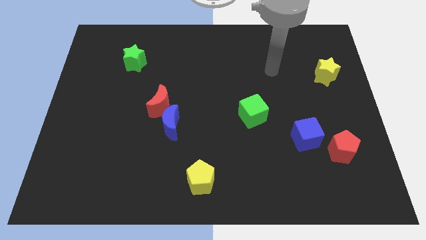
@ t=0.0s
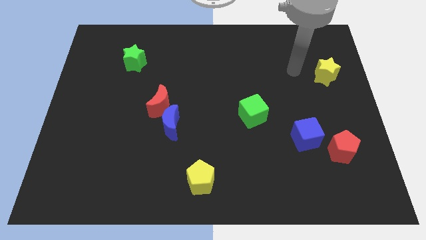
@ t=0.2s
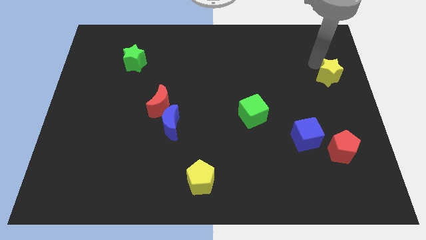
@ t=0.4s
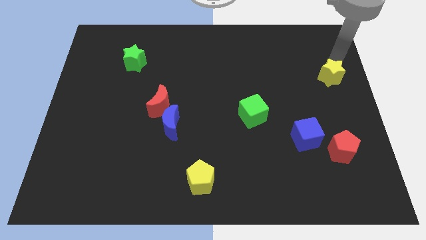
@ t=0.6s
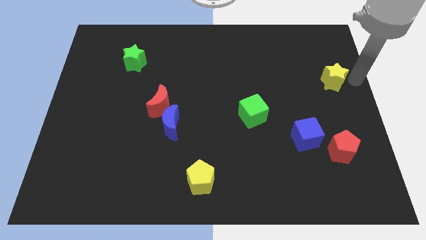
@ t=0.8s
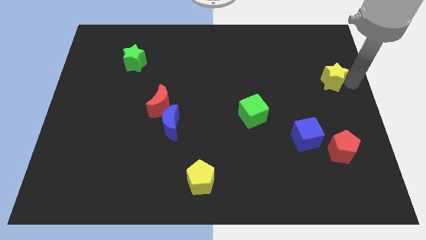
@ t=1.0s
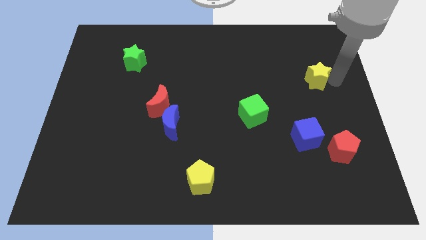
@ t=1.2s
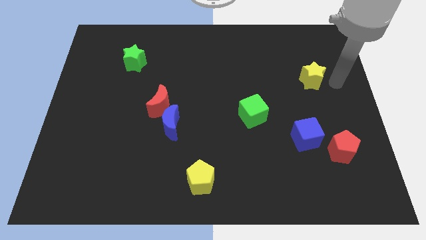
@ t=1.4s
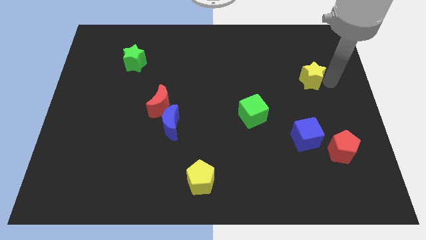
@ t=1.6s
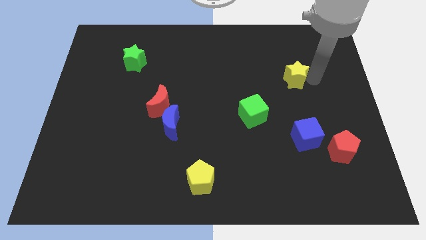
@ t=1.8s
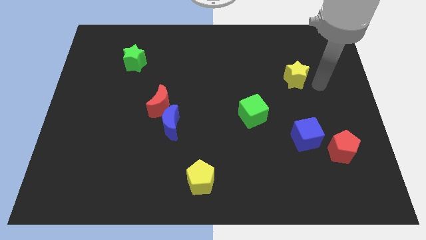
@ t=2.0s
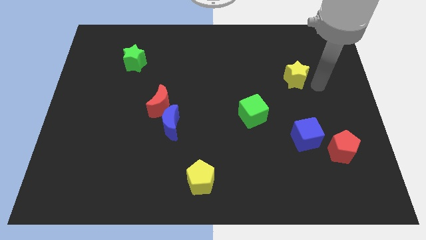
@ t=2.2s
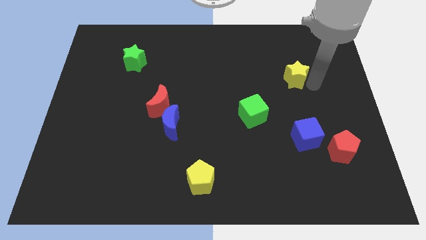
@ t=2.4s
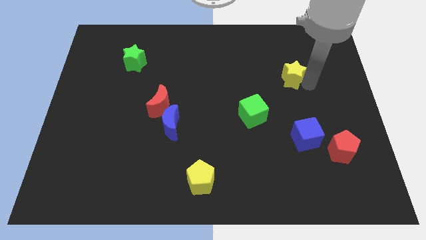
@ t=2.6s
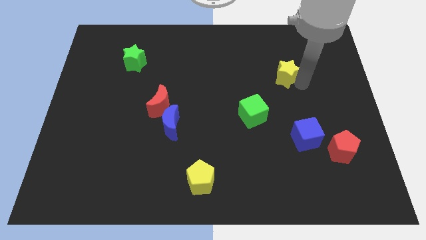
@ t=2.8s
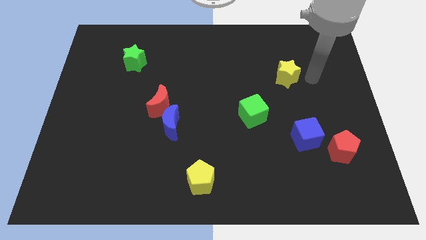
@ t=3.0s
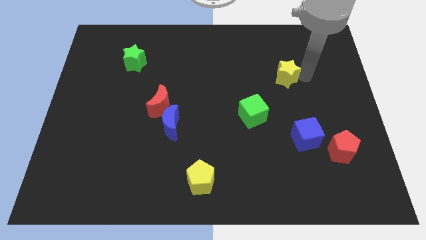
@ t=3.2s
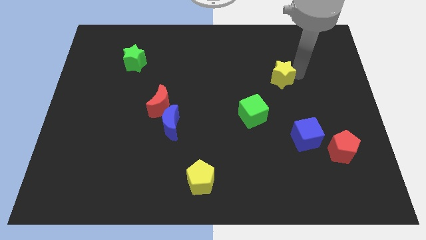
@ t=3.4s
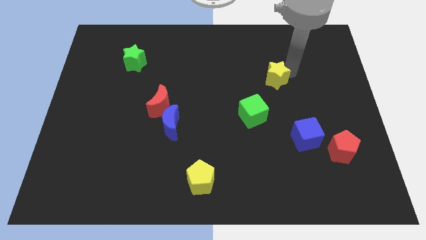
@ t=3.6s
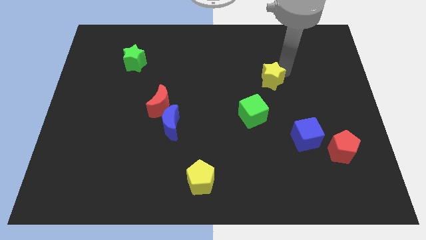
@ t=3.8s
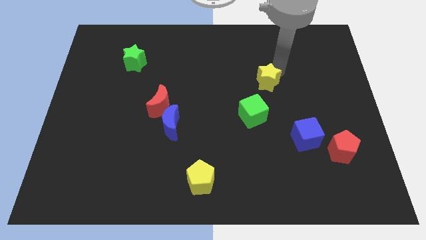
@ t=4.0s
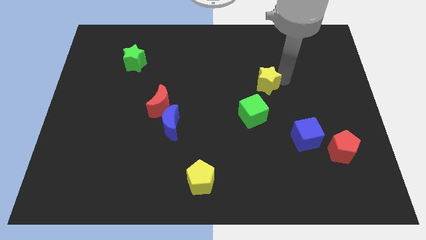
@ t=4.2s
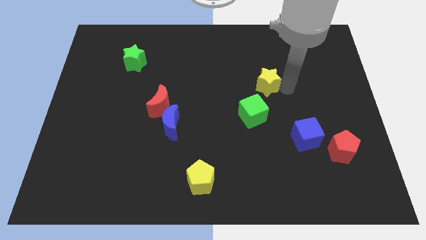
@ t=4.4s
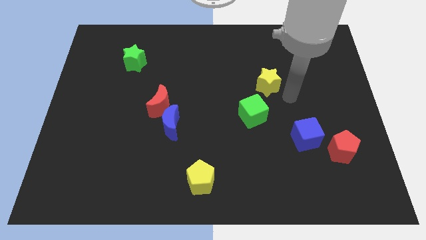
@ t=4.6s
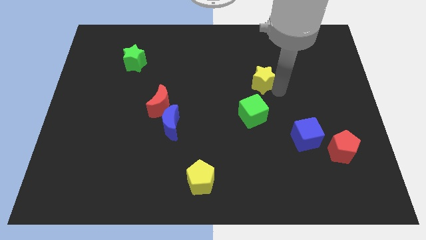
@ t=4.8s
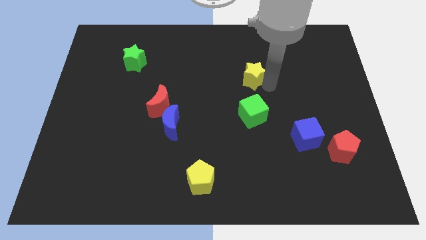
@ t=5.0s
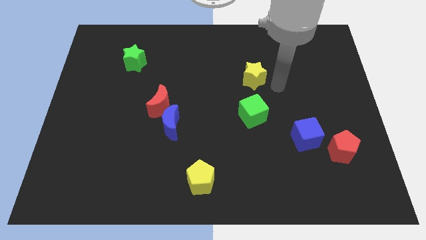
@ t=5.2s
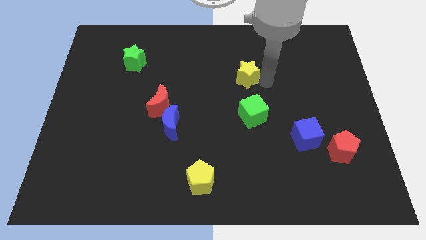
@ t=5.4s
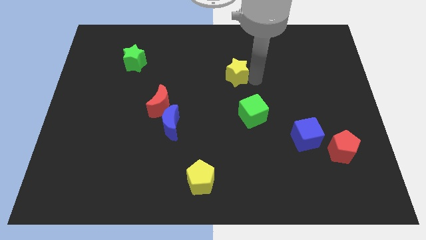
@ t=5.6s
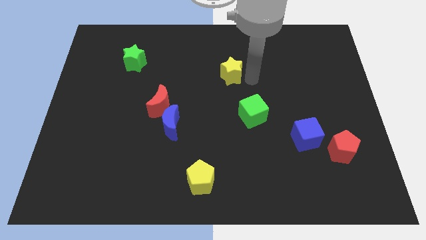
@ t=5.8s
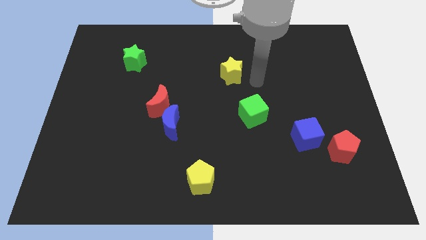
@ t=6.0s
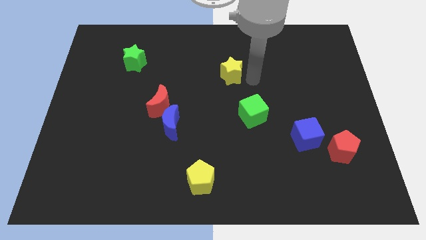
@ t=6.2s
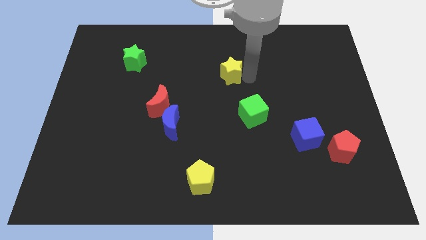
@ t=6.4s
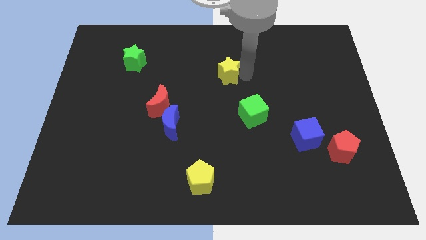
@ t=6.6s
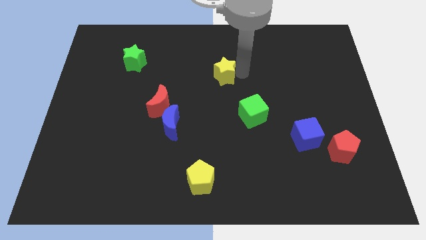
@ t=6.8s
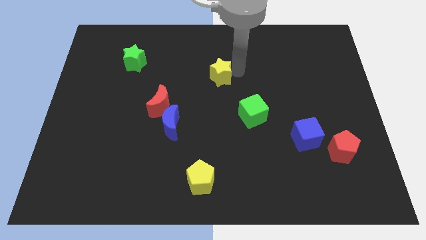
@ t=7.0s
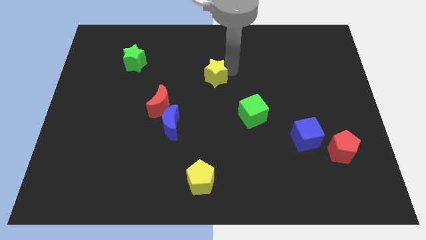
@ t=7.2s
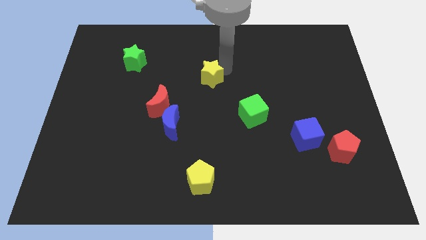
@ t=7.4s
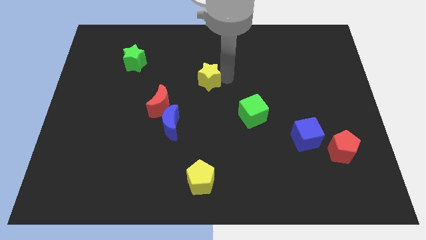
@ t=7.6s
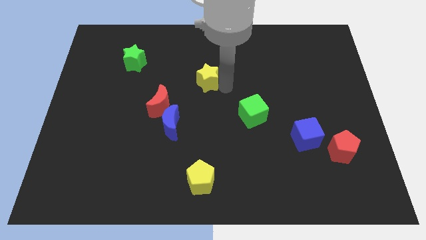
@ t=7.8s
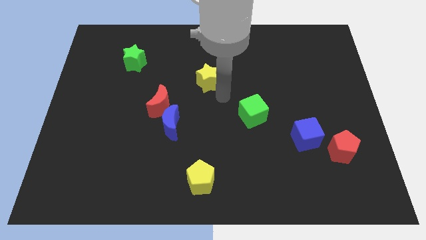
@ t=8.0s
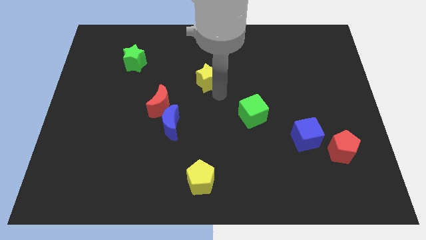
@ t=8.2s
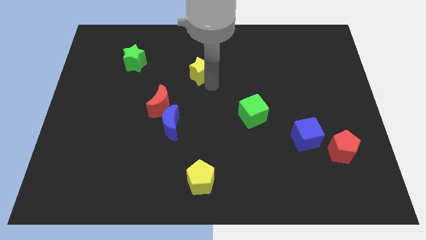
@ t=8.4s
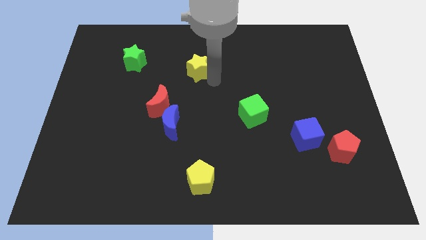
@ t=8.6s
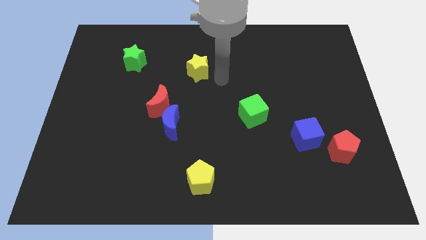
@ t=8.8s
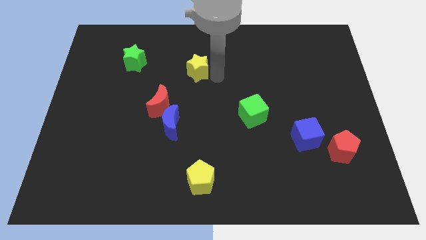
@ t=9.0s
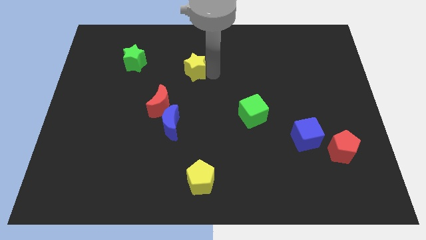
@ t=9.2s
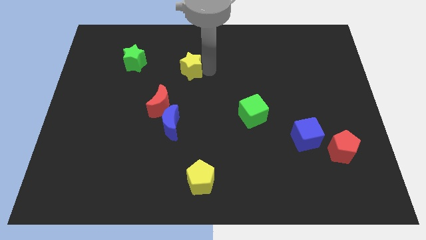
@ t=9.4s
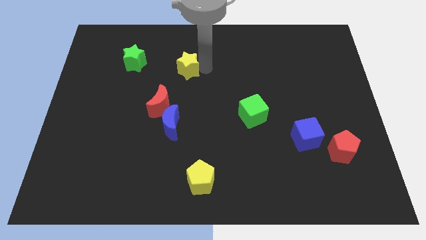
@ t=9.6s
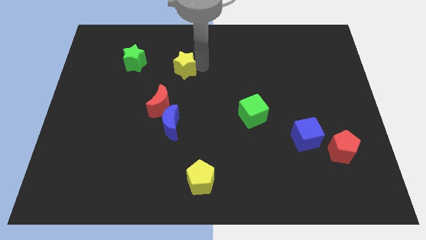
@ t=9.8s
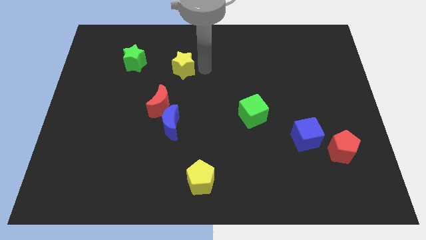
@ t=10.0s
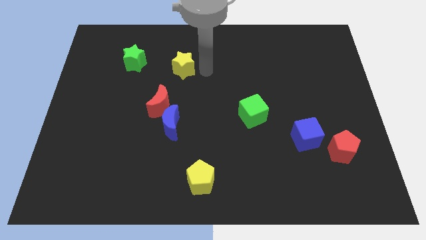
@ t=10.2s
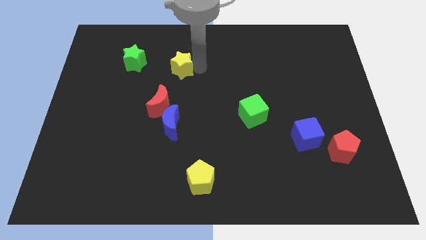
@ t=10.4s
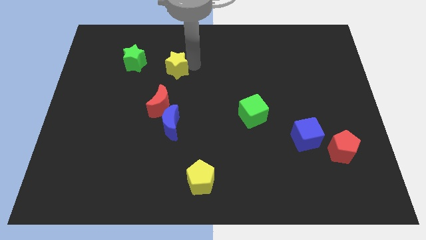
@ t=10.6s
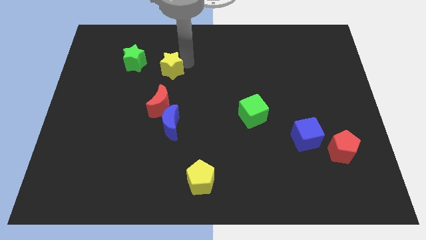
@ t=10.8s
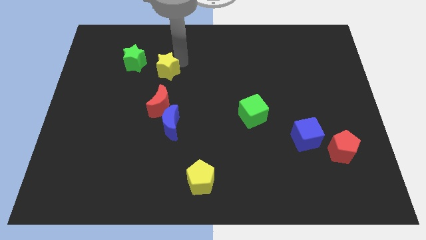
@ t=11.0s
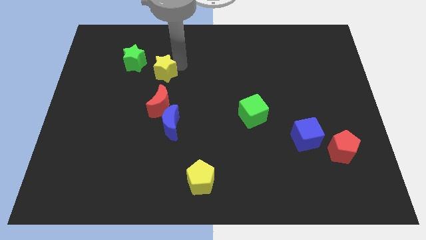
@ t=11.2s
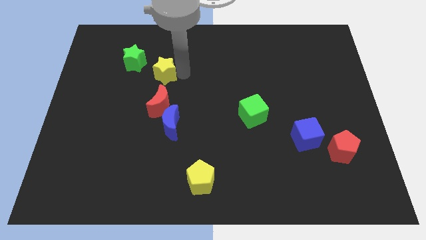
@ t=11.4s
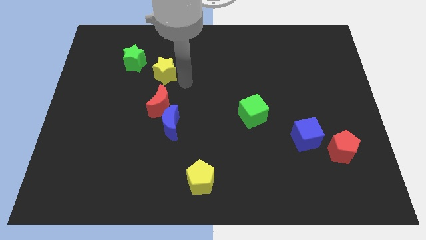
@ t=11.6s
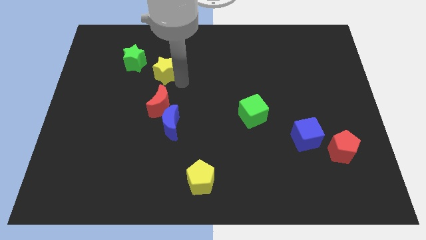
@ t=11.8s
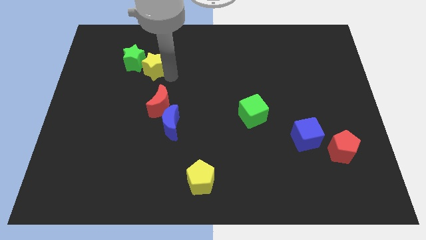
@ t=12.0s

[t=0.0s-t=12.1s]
move the yellow star towards the green star

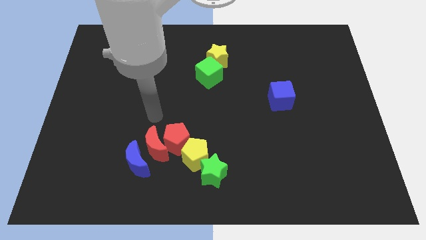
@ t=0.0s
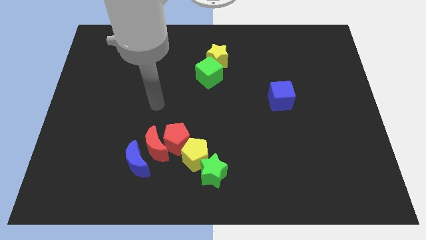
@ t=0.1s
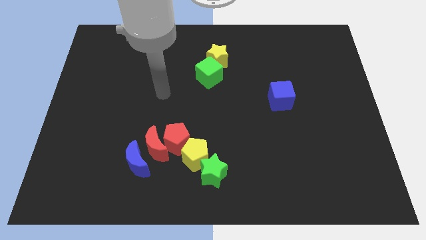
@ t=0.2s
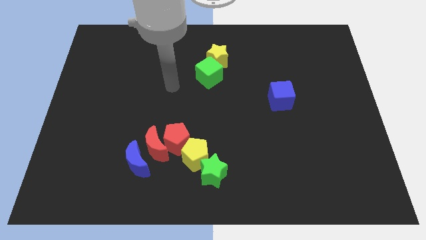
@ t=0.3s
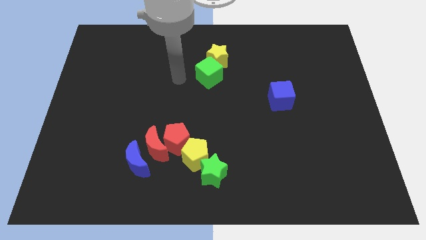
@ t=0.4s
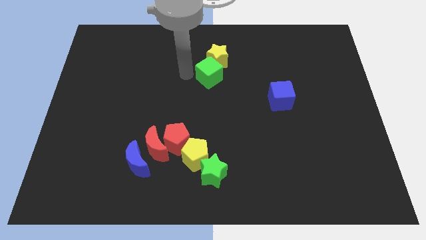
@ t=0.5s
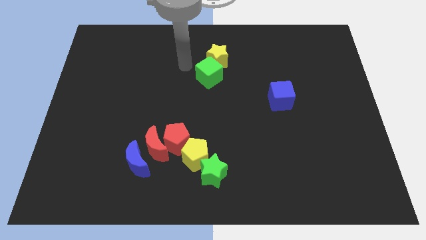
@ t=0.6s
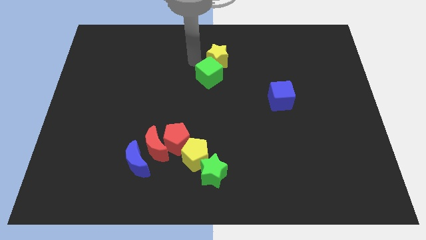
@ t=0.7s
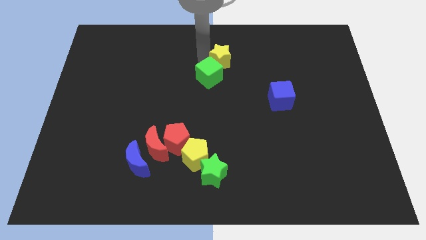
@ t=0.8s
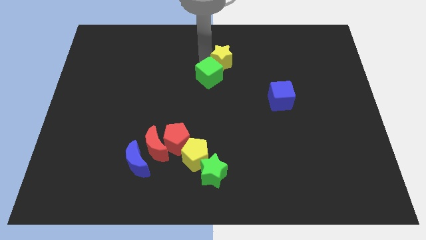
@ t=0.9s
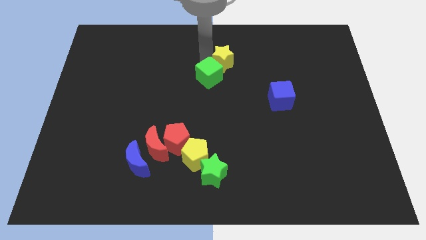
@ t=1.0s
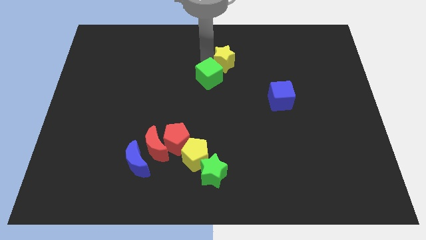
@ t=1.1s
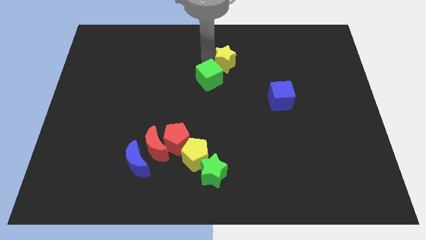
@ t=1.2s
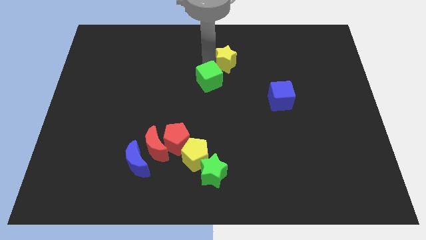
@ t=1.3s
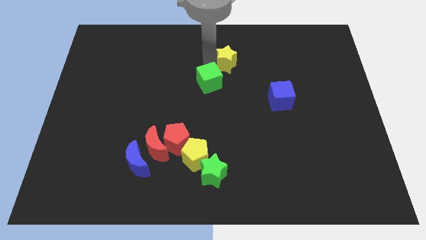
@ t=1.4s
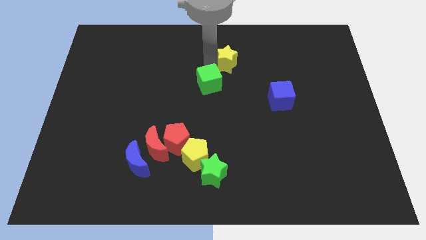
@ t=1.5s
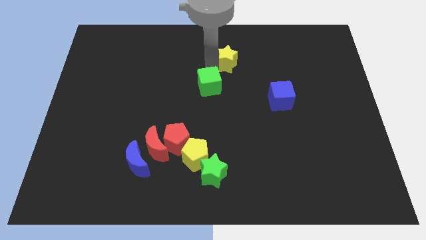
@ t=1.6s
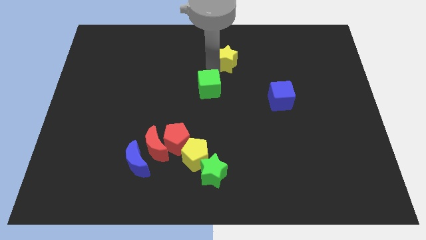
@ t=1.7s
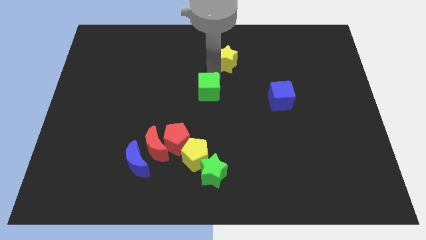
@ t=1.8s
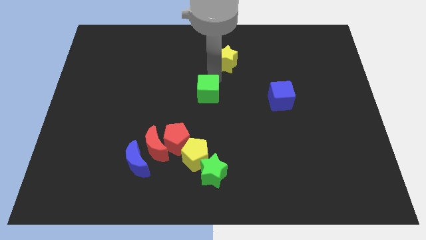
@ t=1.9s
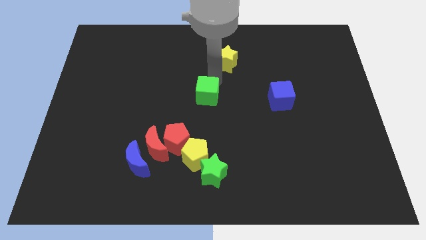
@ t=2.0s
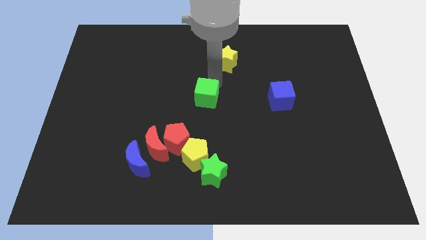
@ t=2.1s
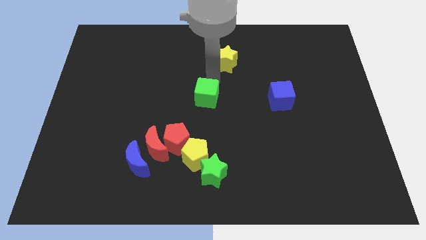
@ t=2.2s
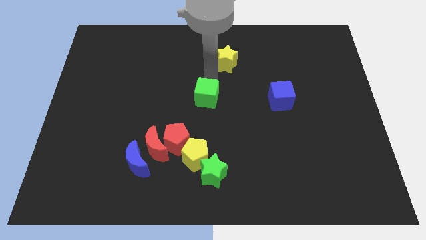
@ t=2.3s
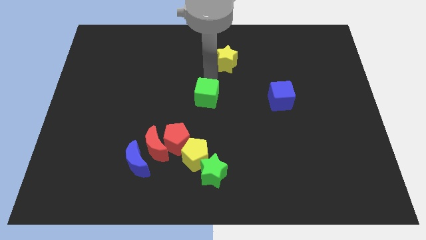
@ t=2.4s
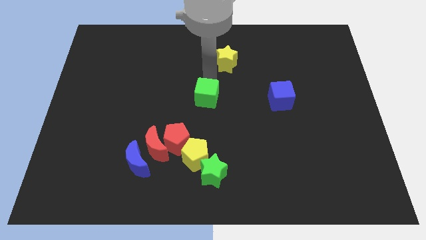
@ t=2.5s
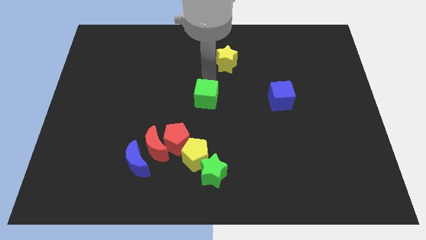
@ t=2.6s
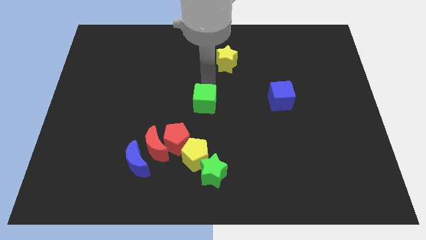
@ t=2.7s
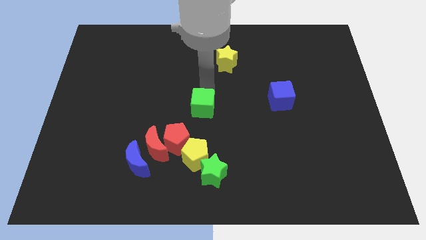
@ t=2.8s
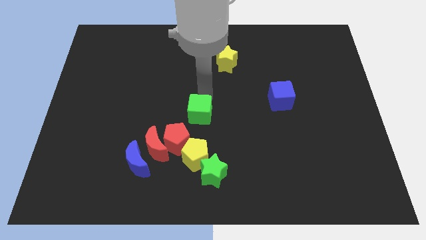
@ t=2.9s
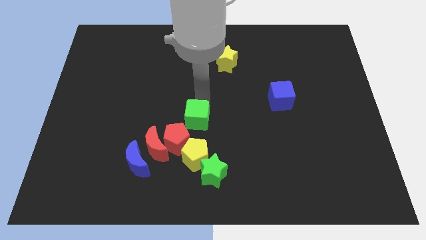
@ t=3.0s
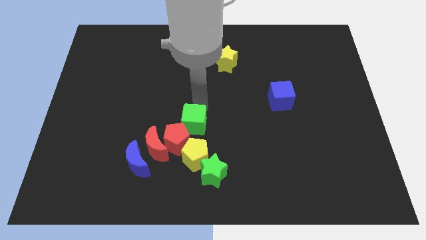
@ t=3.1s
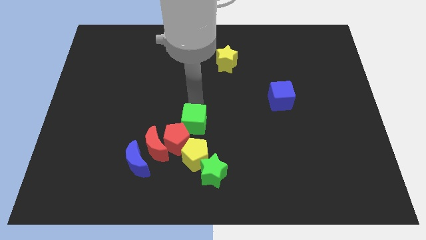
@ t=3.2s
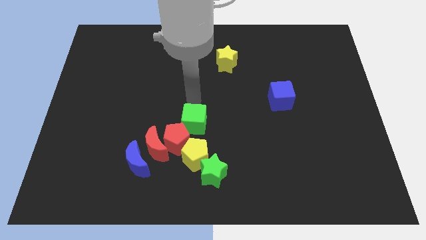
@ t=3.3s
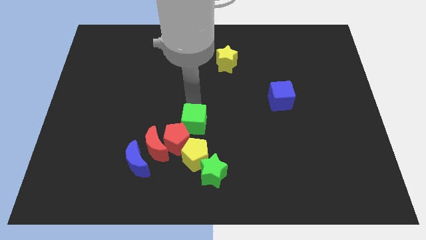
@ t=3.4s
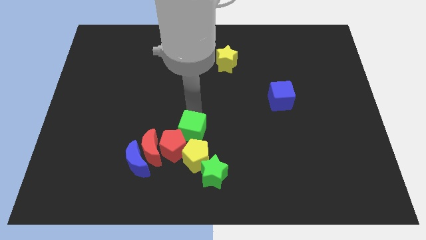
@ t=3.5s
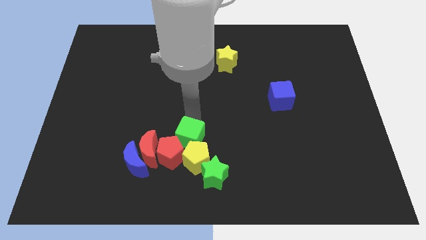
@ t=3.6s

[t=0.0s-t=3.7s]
push the green cube towards the yellow pentagon
